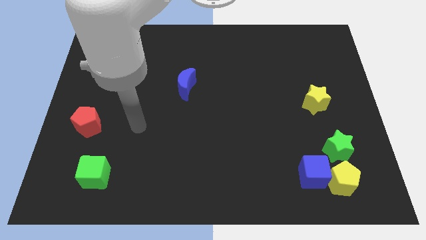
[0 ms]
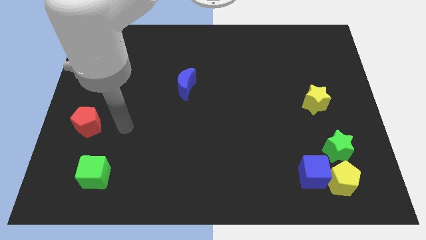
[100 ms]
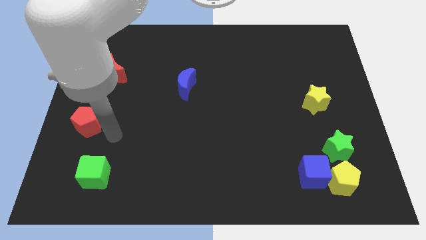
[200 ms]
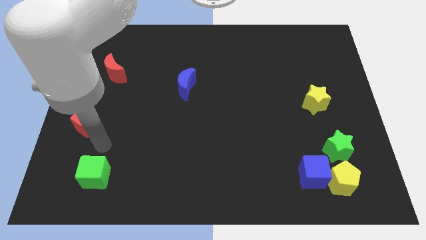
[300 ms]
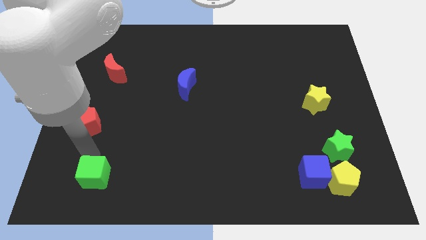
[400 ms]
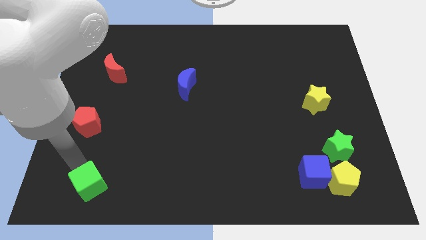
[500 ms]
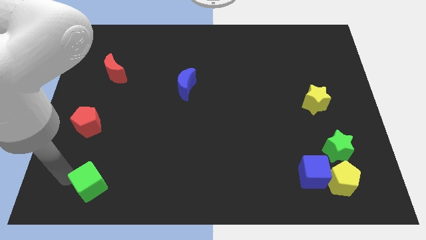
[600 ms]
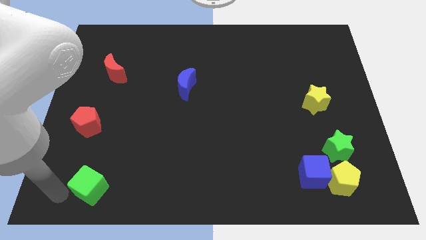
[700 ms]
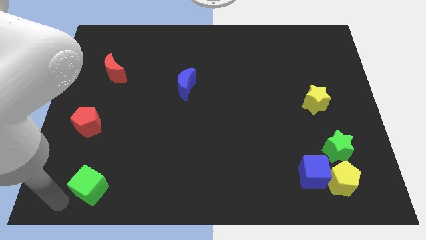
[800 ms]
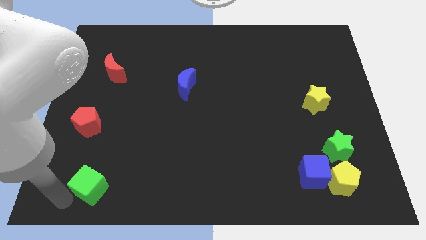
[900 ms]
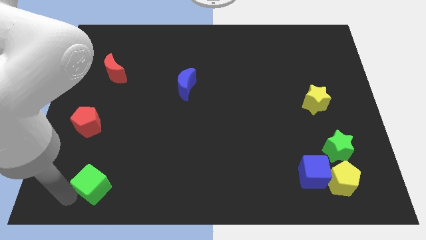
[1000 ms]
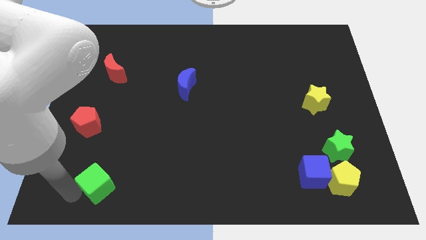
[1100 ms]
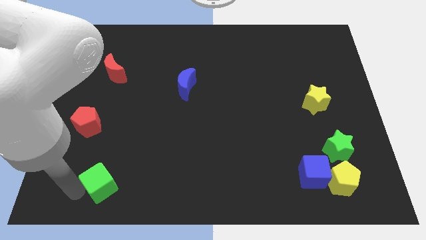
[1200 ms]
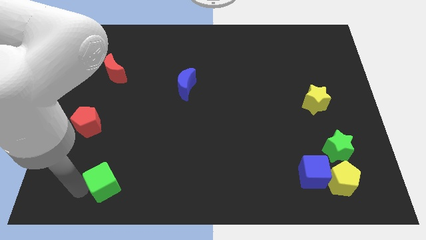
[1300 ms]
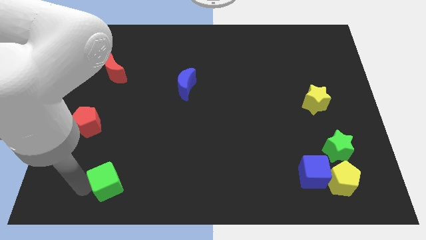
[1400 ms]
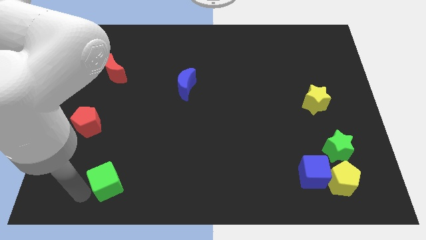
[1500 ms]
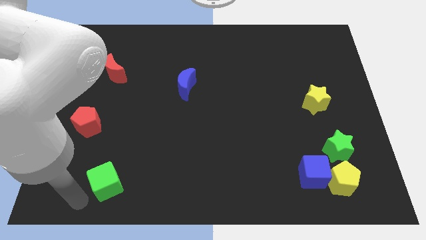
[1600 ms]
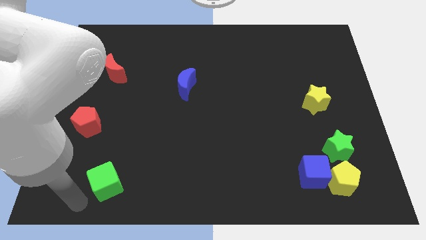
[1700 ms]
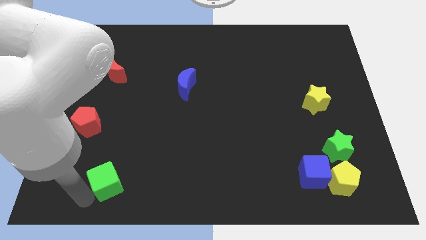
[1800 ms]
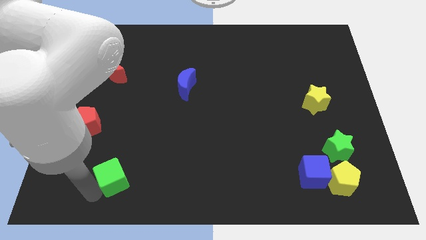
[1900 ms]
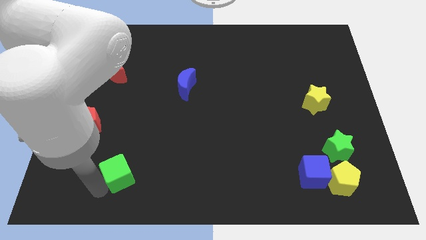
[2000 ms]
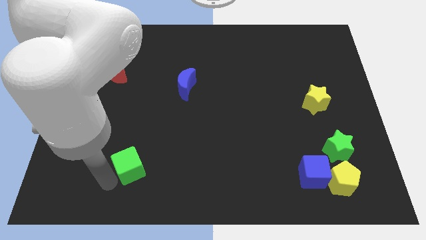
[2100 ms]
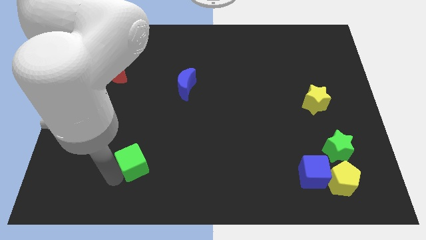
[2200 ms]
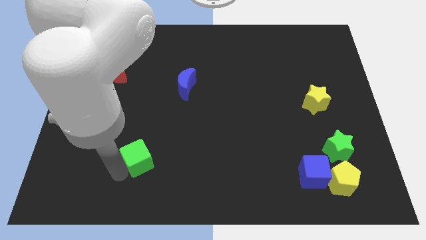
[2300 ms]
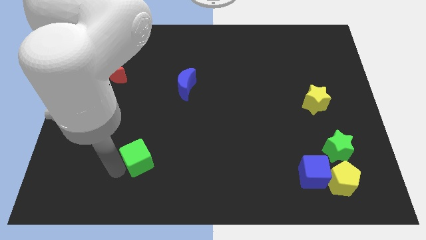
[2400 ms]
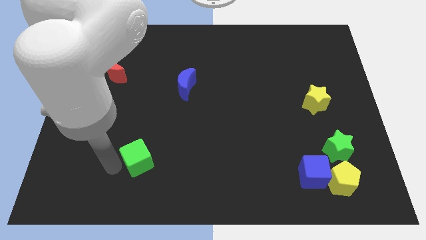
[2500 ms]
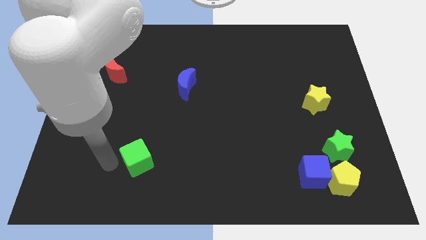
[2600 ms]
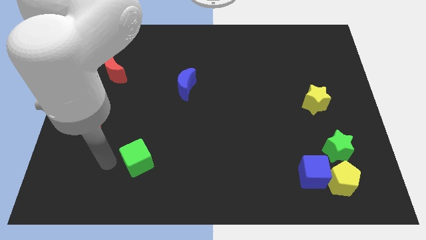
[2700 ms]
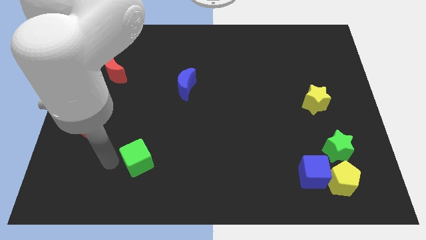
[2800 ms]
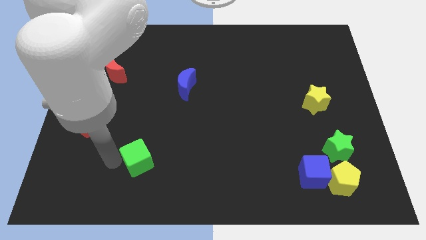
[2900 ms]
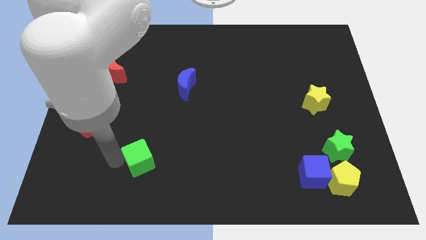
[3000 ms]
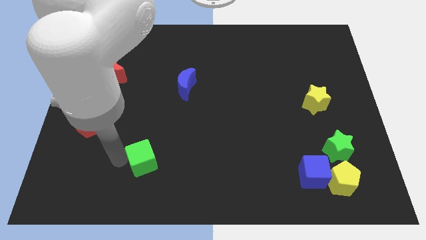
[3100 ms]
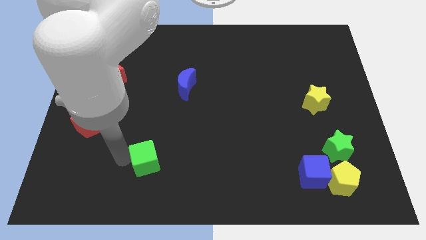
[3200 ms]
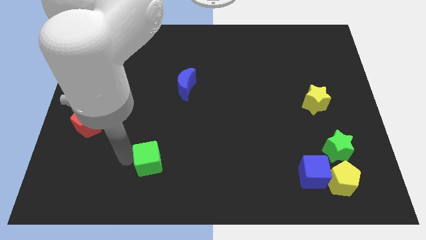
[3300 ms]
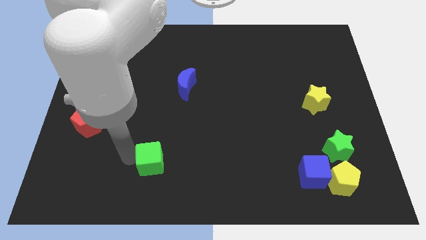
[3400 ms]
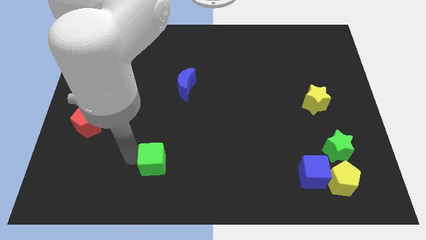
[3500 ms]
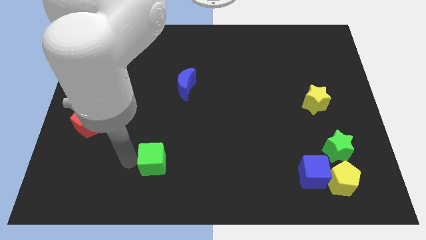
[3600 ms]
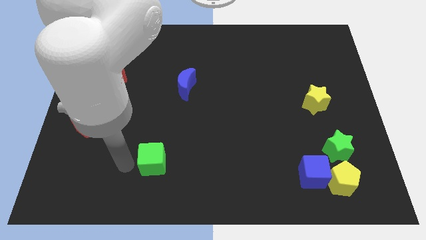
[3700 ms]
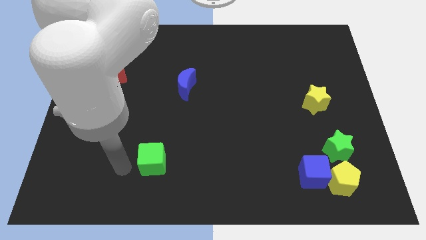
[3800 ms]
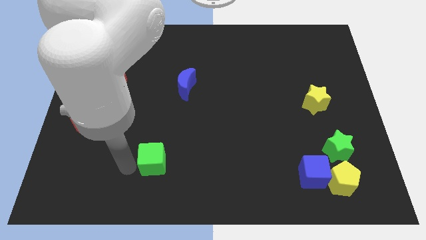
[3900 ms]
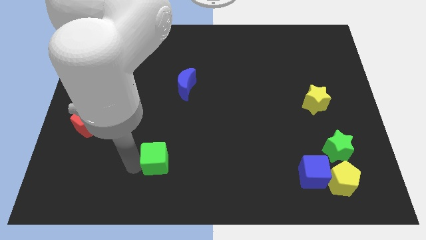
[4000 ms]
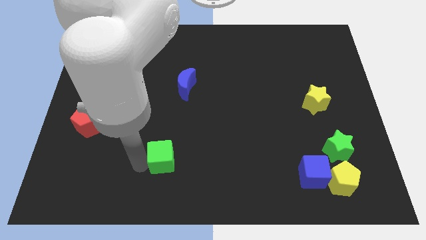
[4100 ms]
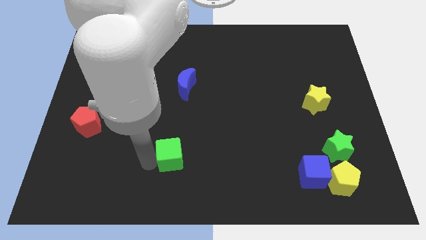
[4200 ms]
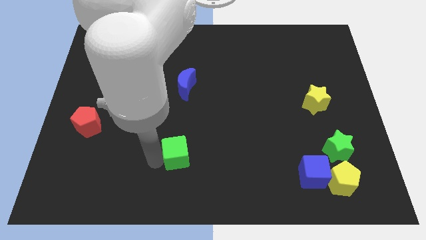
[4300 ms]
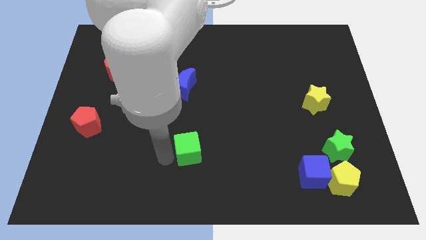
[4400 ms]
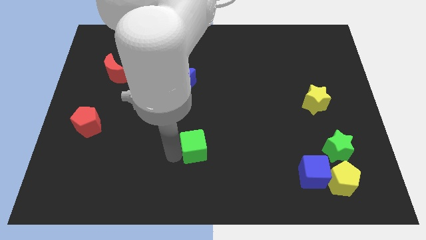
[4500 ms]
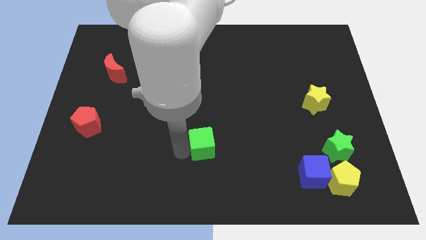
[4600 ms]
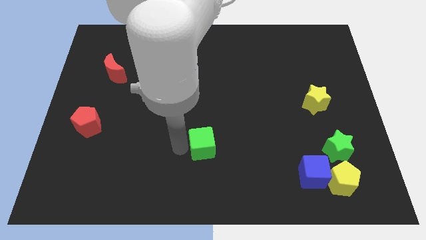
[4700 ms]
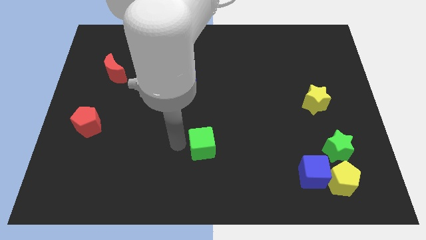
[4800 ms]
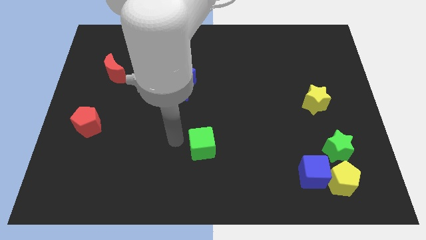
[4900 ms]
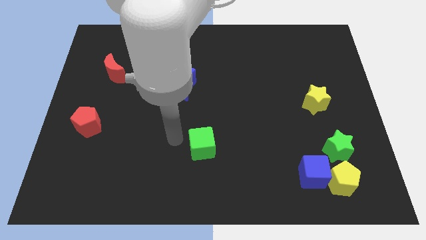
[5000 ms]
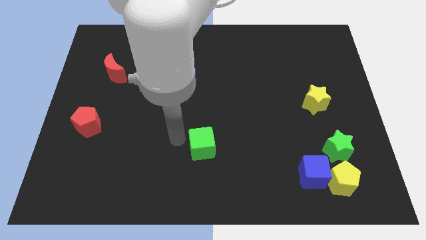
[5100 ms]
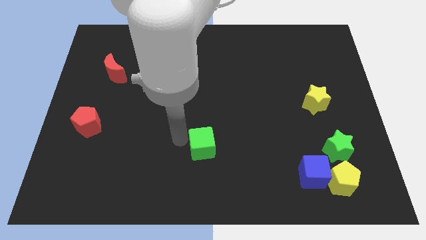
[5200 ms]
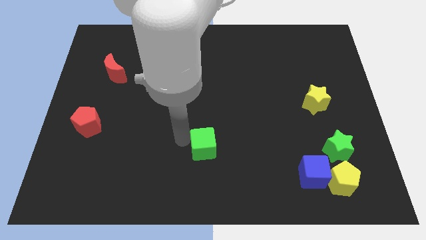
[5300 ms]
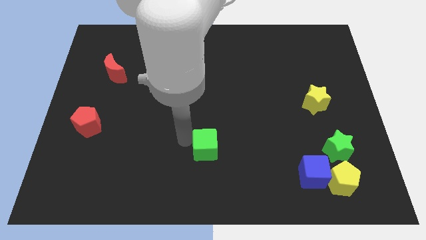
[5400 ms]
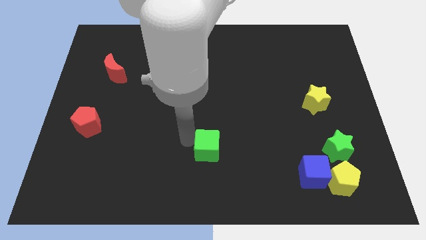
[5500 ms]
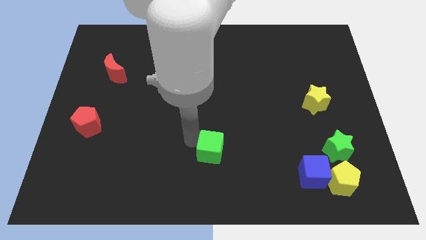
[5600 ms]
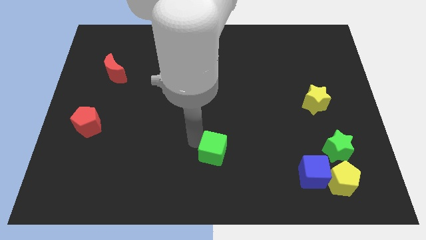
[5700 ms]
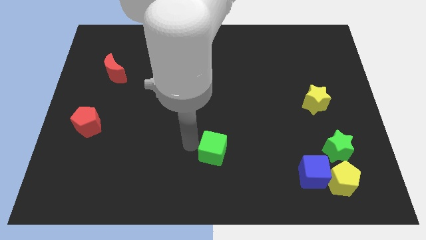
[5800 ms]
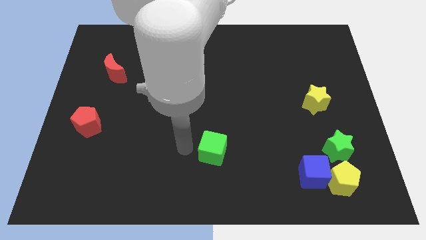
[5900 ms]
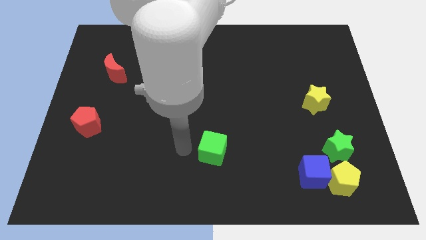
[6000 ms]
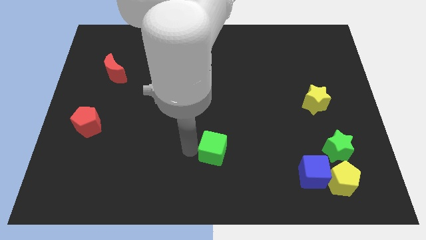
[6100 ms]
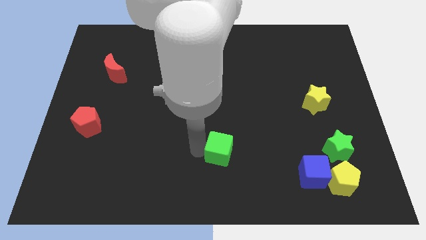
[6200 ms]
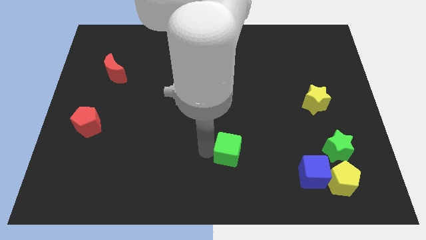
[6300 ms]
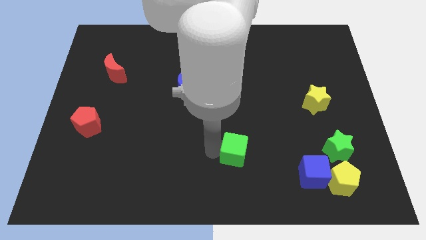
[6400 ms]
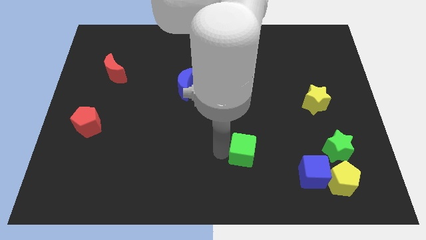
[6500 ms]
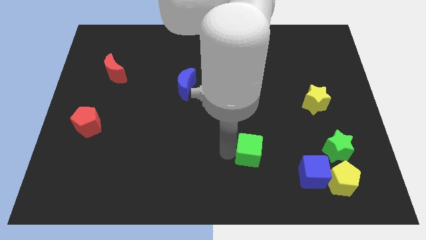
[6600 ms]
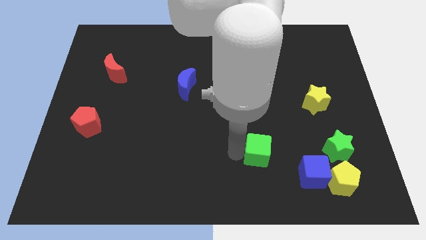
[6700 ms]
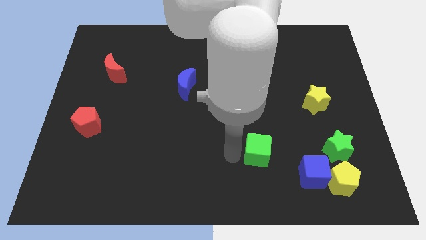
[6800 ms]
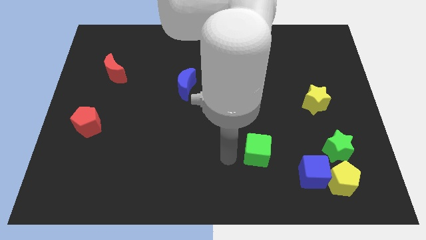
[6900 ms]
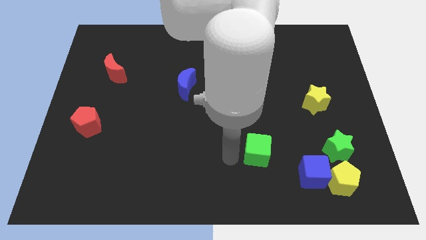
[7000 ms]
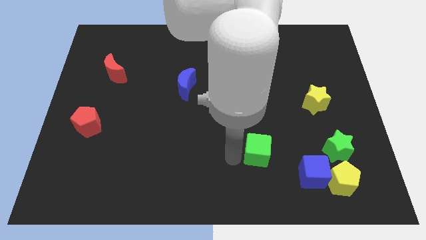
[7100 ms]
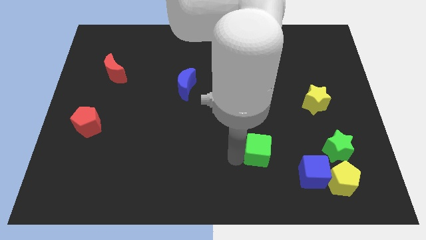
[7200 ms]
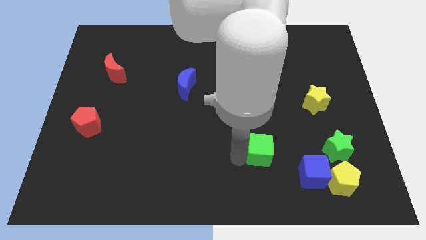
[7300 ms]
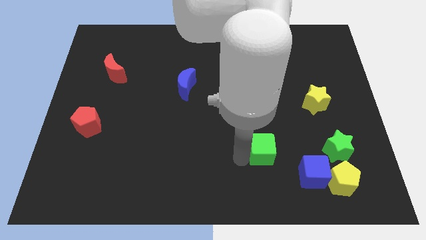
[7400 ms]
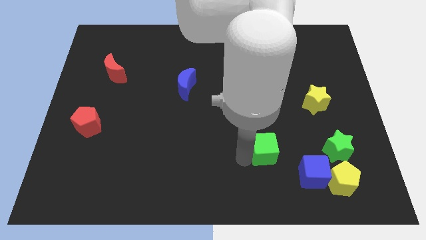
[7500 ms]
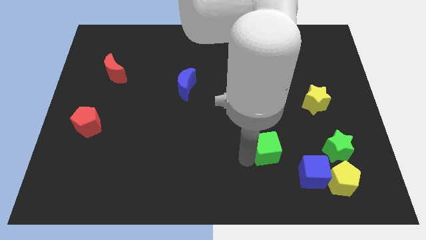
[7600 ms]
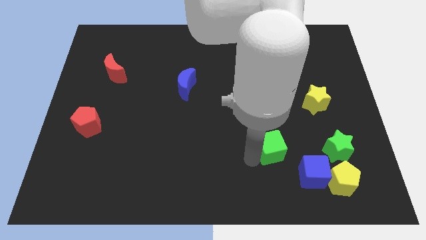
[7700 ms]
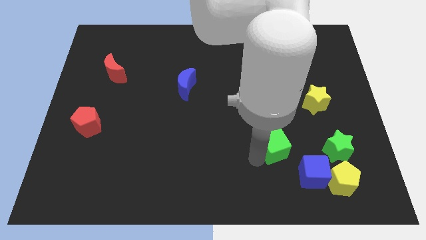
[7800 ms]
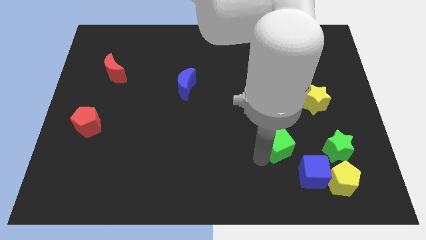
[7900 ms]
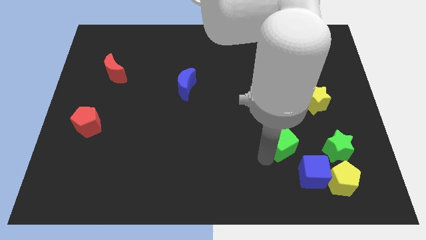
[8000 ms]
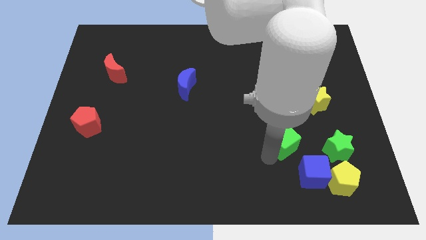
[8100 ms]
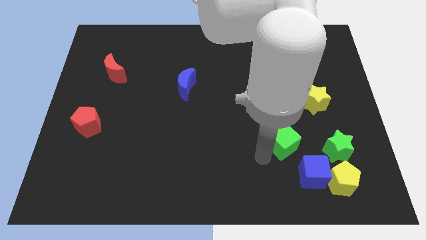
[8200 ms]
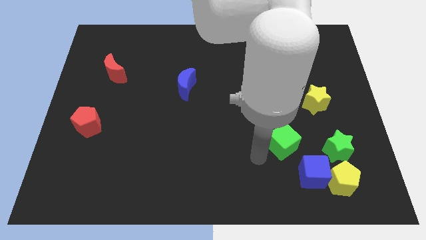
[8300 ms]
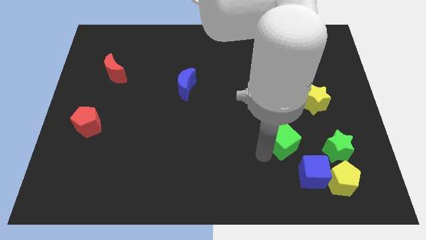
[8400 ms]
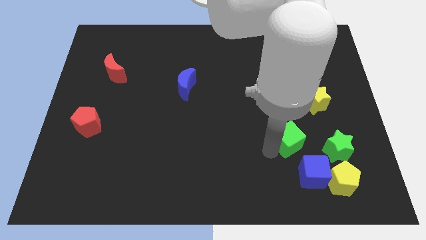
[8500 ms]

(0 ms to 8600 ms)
move the green cube to the top side of the blue cube
